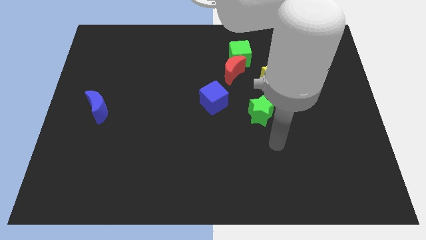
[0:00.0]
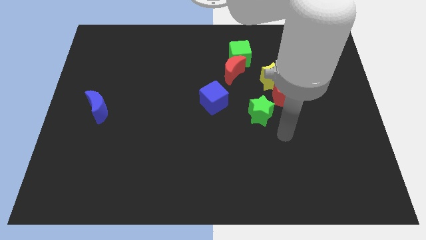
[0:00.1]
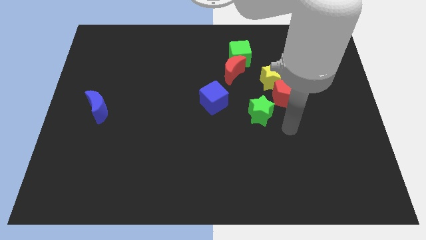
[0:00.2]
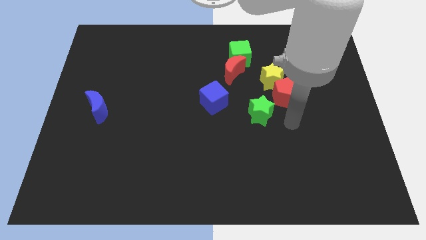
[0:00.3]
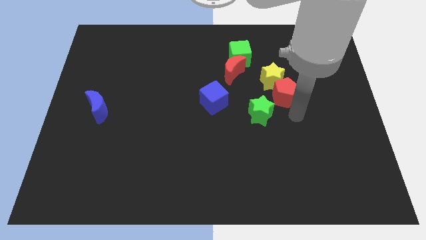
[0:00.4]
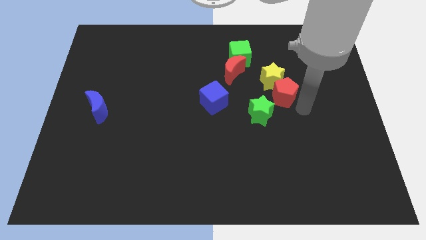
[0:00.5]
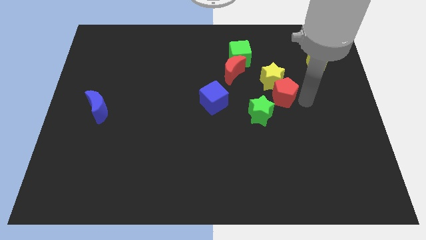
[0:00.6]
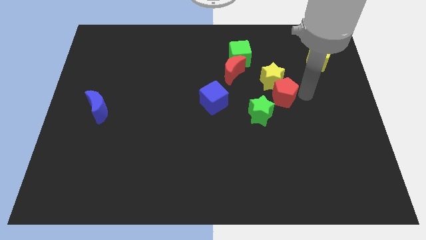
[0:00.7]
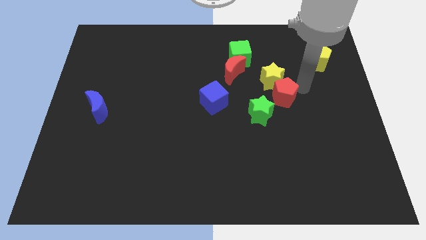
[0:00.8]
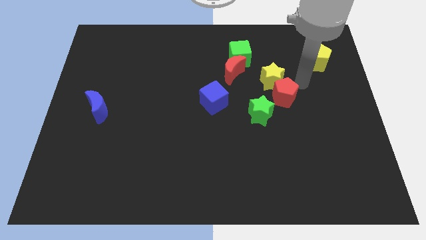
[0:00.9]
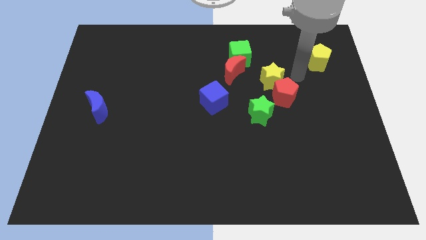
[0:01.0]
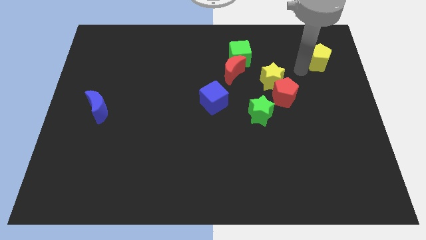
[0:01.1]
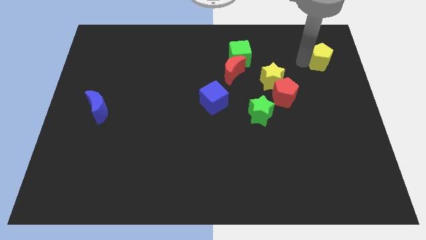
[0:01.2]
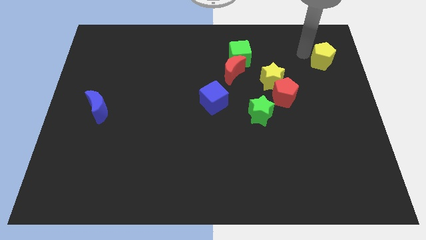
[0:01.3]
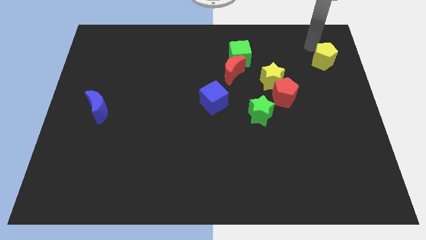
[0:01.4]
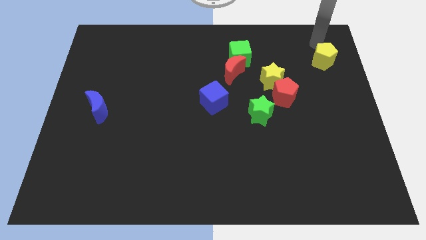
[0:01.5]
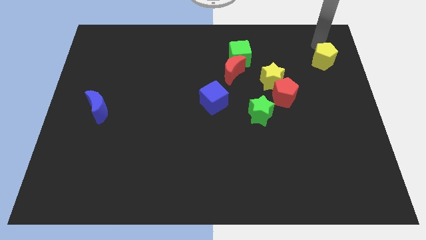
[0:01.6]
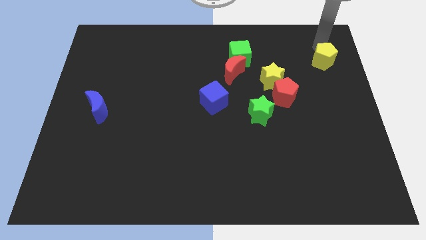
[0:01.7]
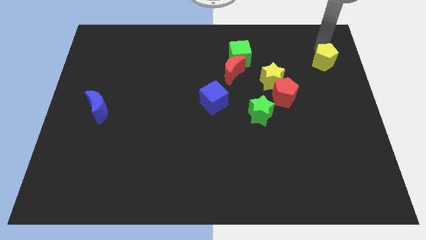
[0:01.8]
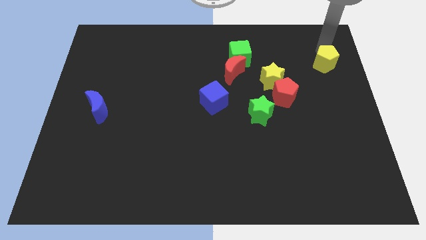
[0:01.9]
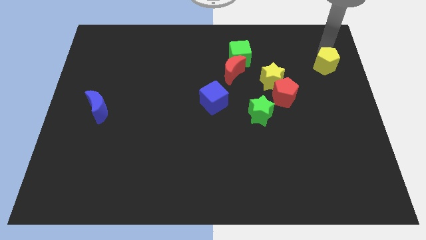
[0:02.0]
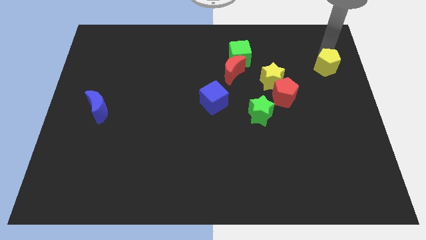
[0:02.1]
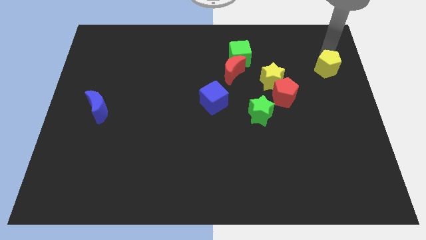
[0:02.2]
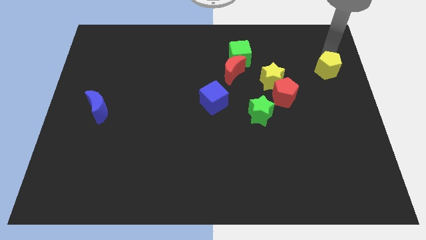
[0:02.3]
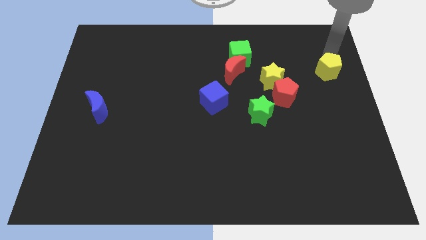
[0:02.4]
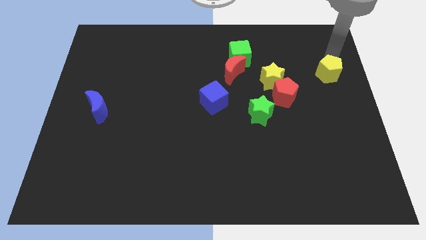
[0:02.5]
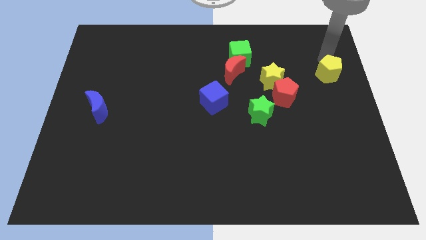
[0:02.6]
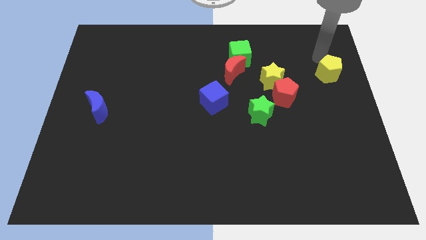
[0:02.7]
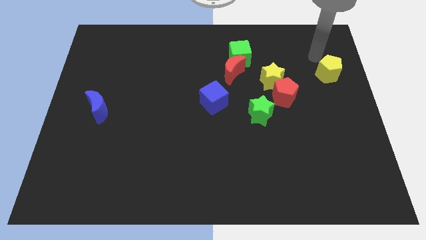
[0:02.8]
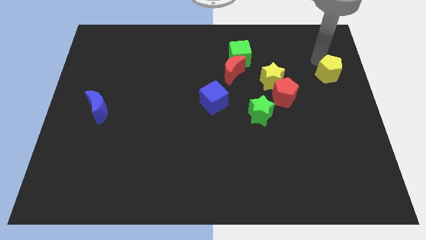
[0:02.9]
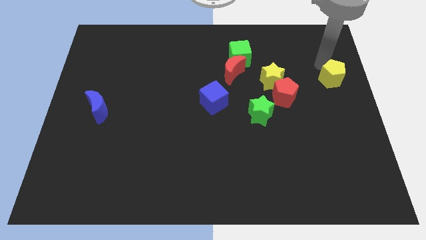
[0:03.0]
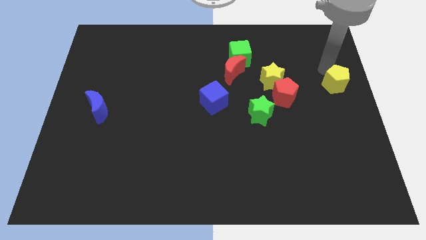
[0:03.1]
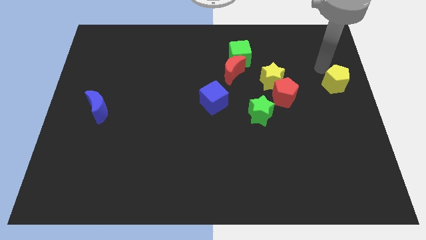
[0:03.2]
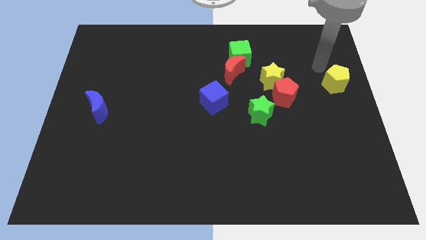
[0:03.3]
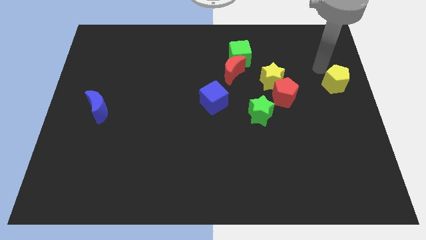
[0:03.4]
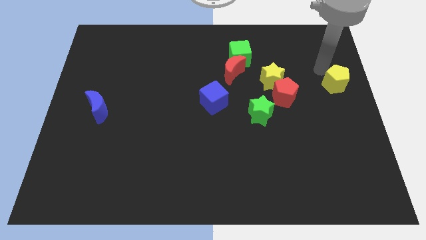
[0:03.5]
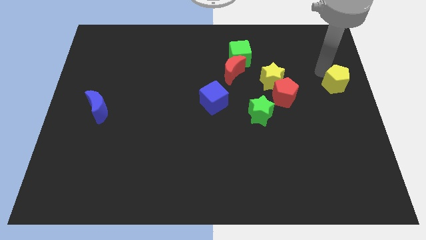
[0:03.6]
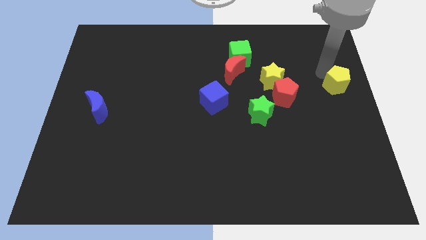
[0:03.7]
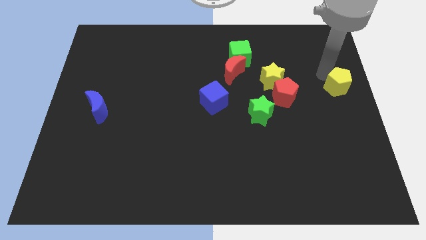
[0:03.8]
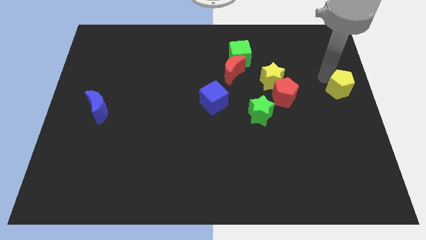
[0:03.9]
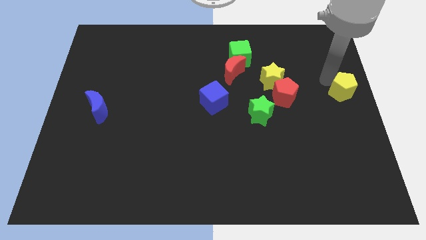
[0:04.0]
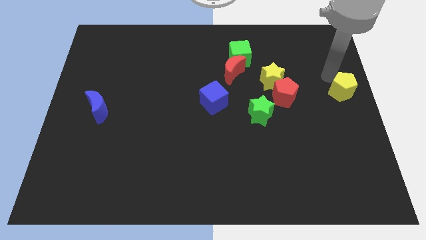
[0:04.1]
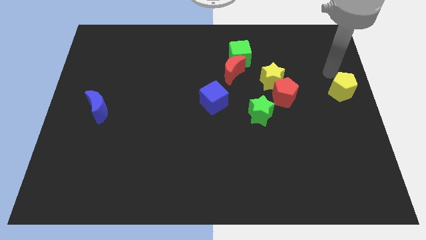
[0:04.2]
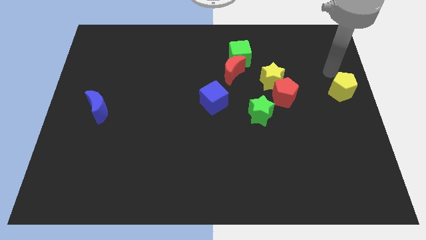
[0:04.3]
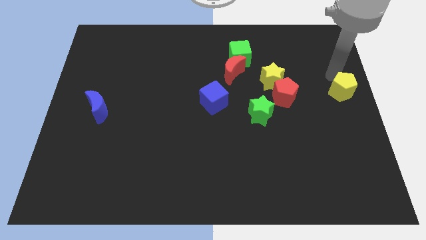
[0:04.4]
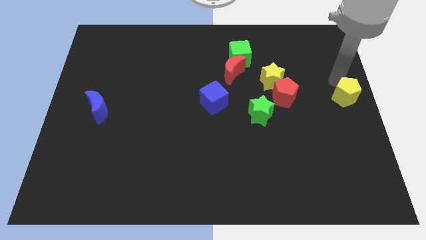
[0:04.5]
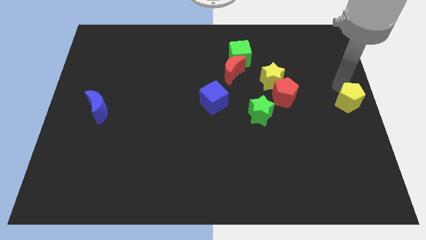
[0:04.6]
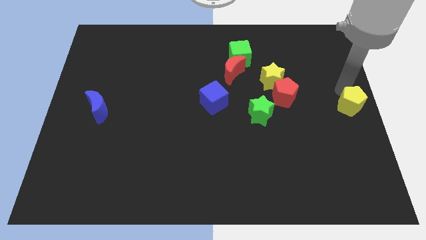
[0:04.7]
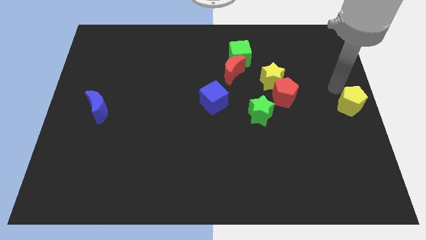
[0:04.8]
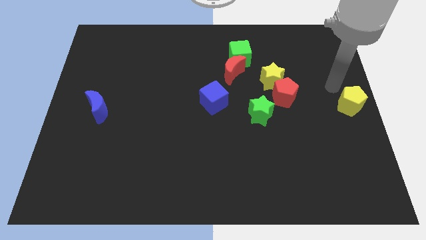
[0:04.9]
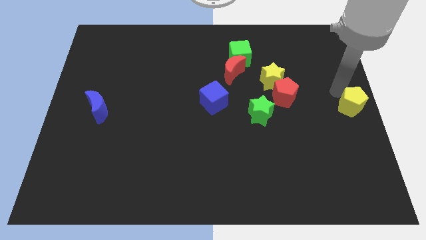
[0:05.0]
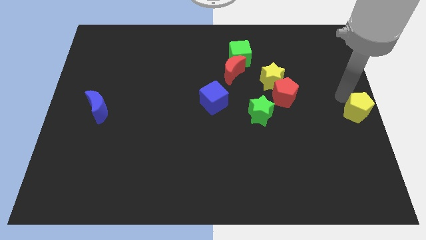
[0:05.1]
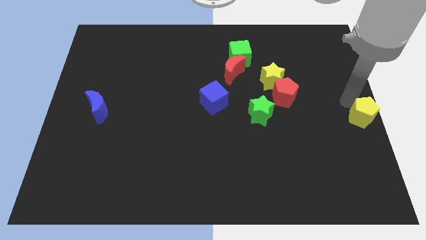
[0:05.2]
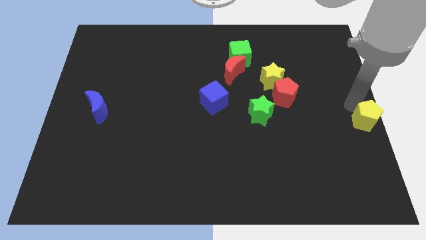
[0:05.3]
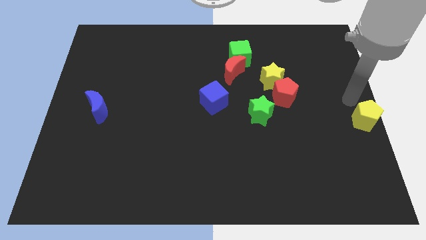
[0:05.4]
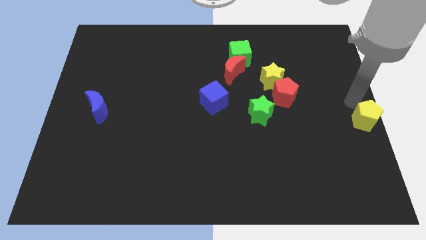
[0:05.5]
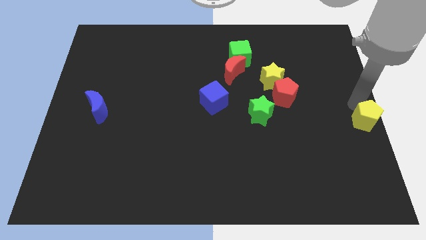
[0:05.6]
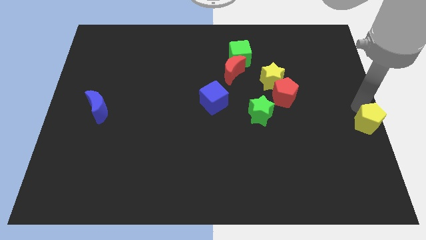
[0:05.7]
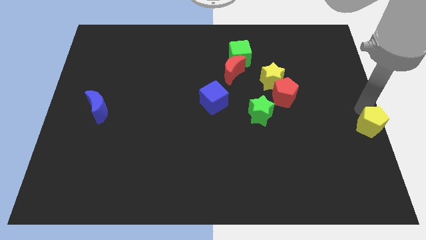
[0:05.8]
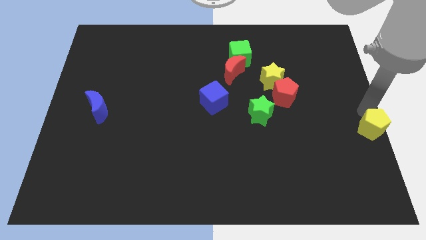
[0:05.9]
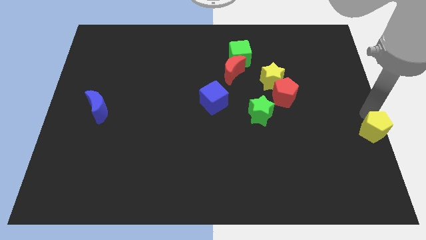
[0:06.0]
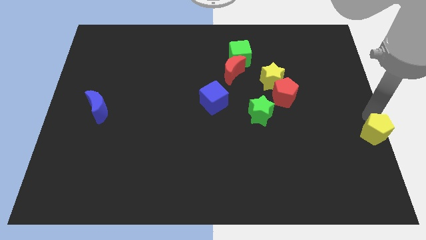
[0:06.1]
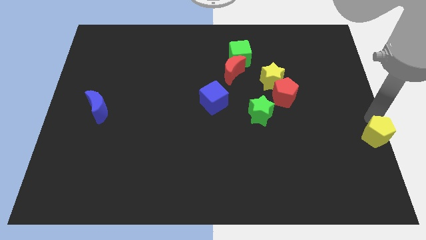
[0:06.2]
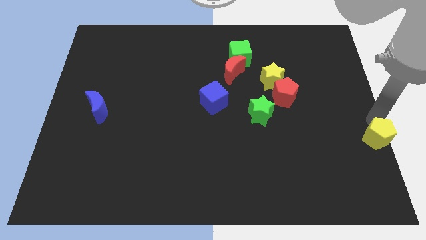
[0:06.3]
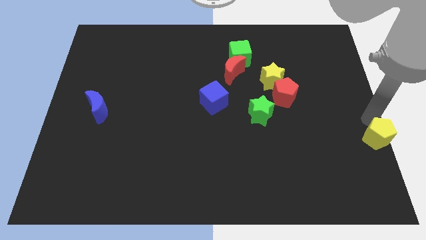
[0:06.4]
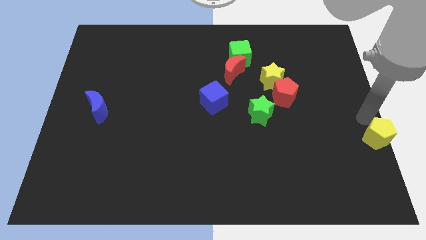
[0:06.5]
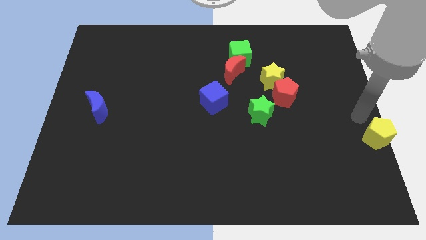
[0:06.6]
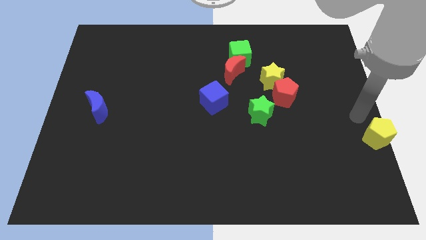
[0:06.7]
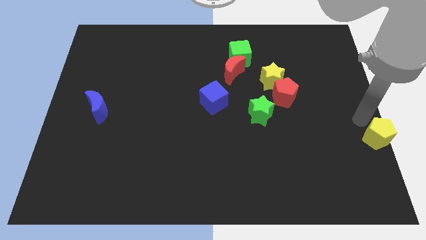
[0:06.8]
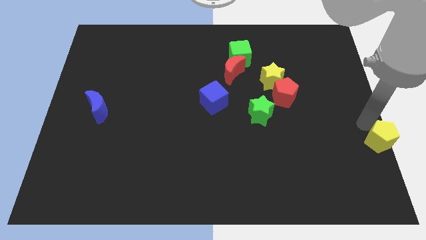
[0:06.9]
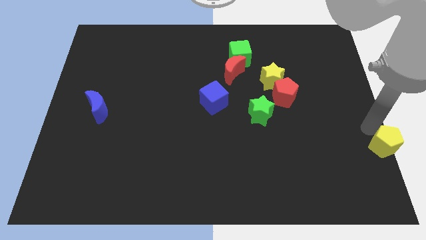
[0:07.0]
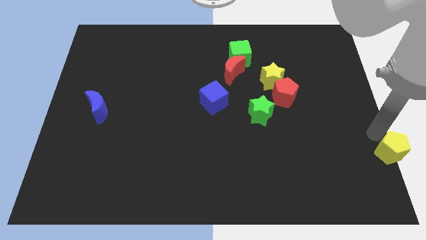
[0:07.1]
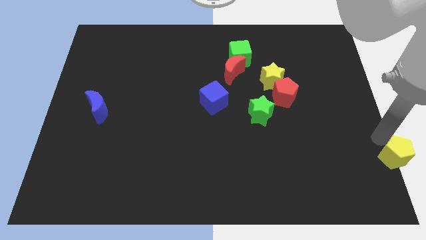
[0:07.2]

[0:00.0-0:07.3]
push the yellow pentagon to the lower right corner
